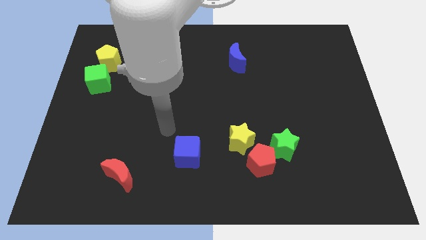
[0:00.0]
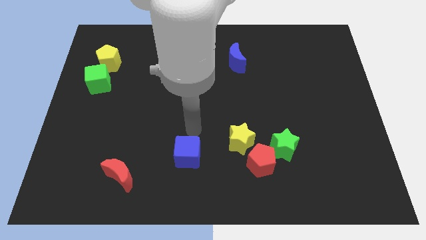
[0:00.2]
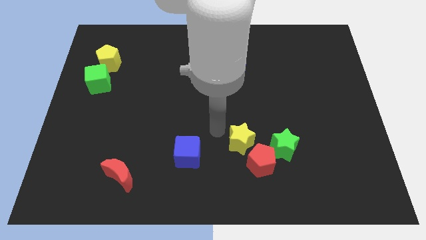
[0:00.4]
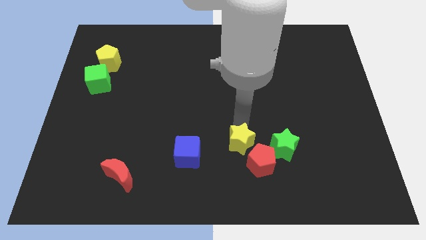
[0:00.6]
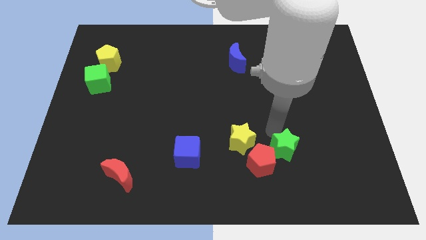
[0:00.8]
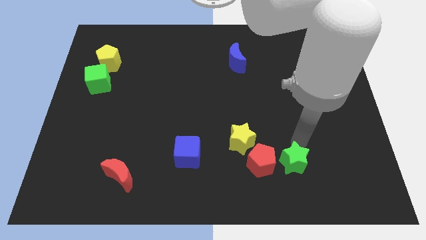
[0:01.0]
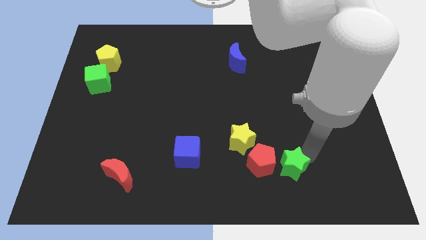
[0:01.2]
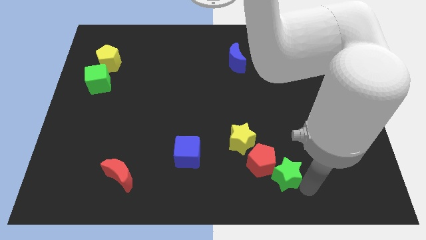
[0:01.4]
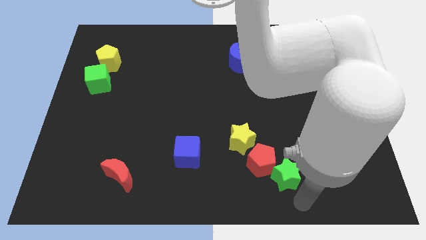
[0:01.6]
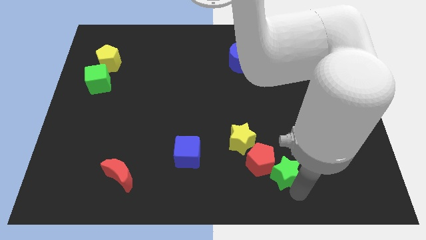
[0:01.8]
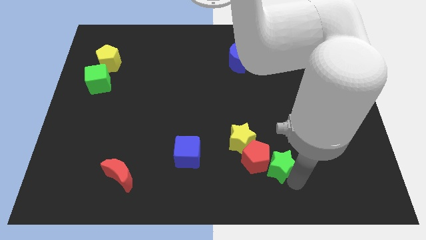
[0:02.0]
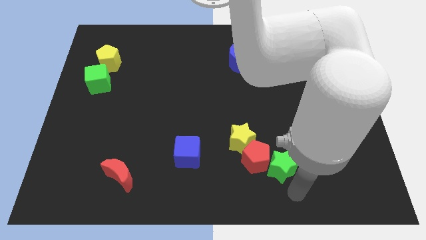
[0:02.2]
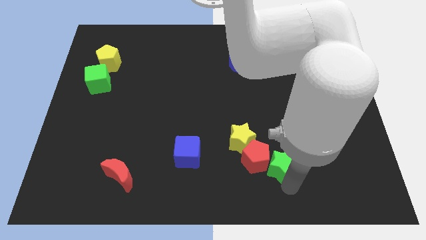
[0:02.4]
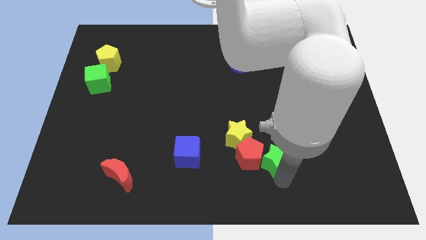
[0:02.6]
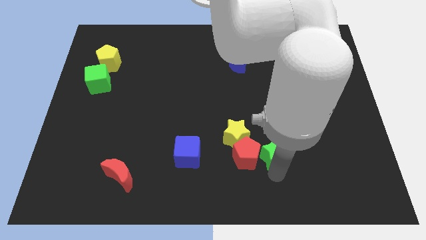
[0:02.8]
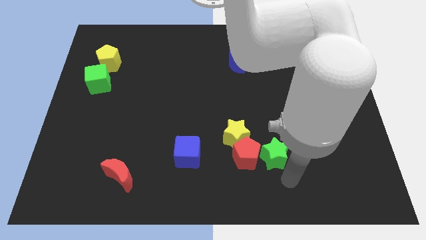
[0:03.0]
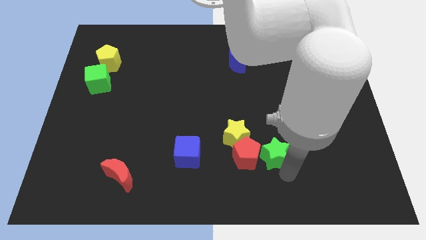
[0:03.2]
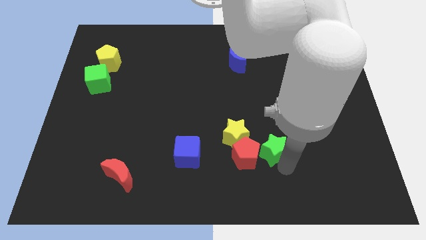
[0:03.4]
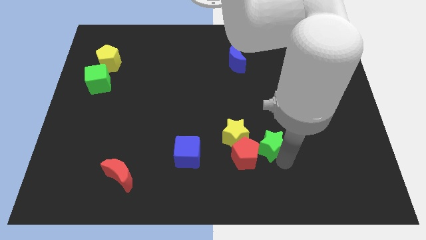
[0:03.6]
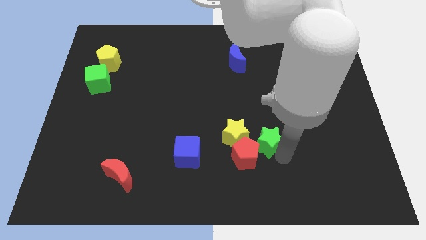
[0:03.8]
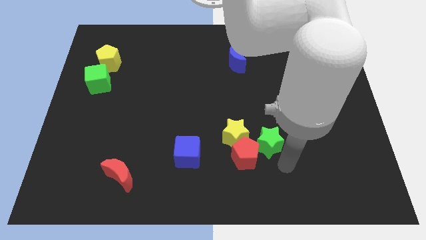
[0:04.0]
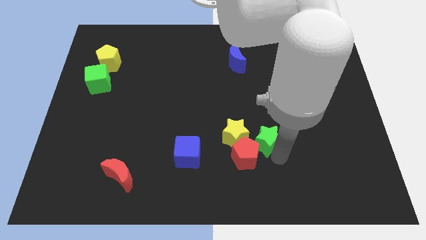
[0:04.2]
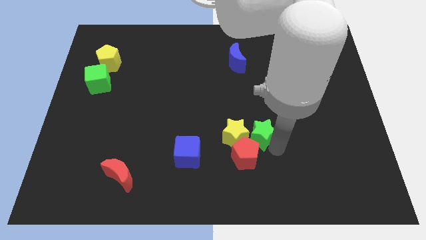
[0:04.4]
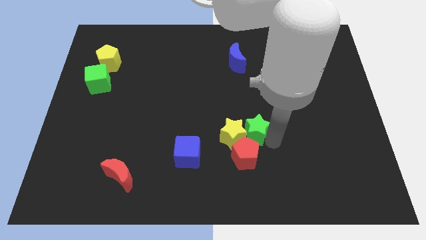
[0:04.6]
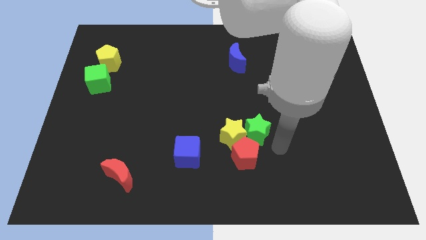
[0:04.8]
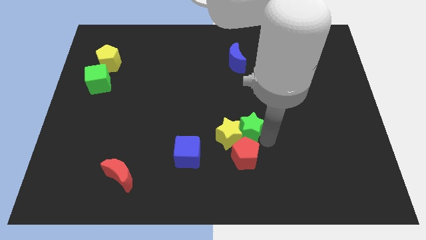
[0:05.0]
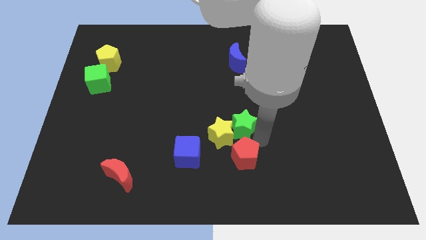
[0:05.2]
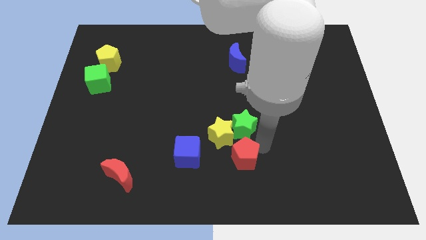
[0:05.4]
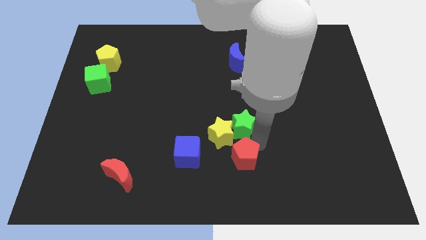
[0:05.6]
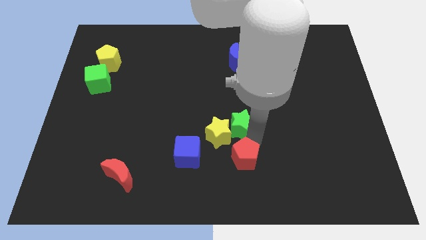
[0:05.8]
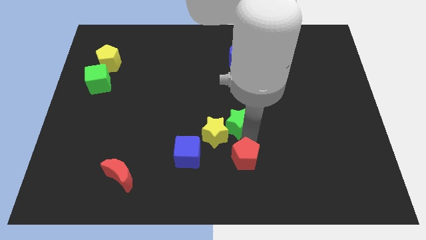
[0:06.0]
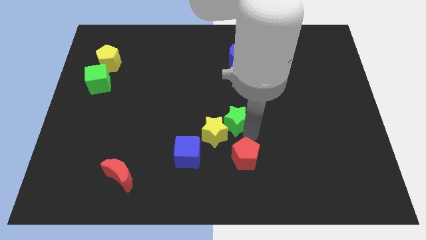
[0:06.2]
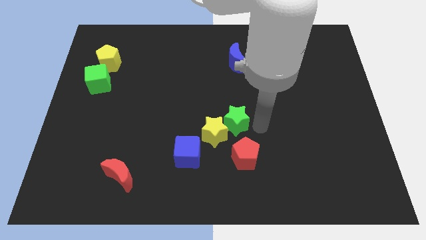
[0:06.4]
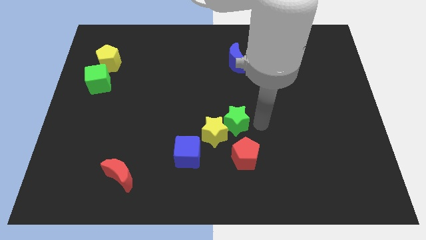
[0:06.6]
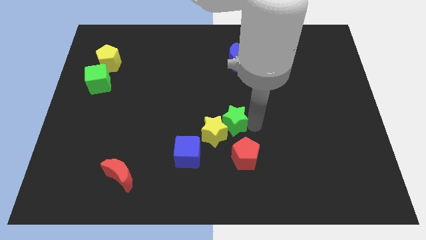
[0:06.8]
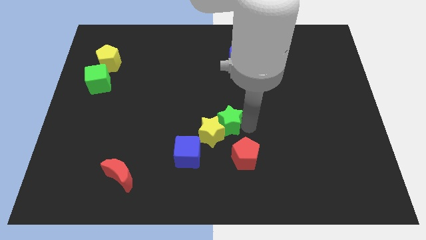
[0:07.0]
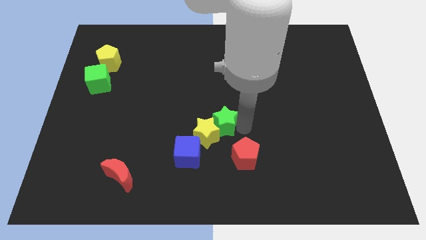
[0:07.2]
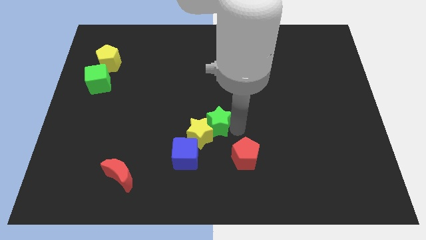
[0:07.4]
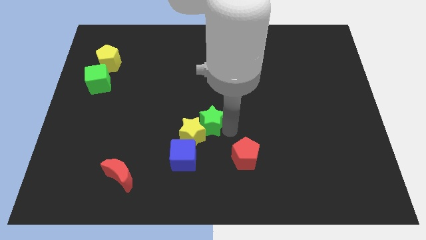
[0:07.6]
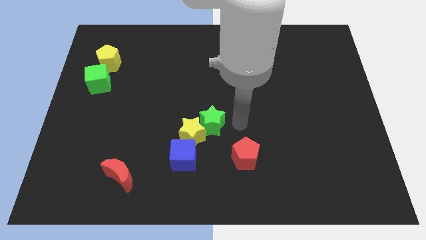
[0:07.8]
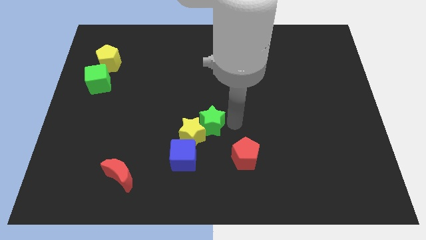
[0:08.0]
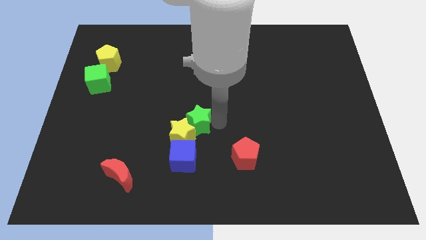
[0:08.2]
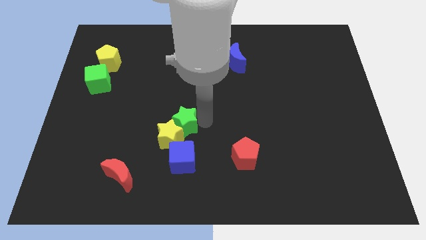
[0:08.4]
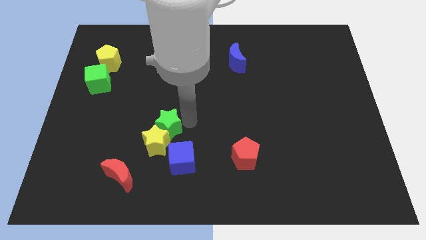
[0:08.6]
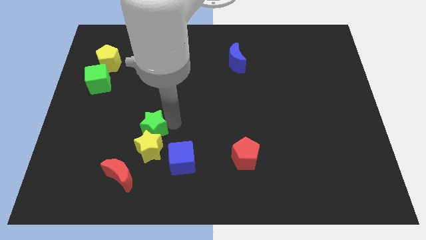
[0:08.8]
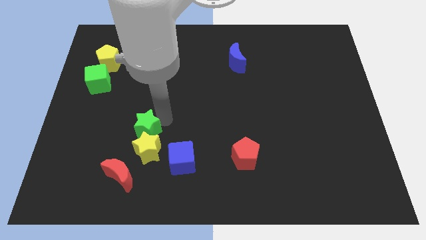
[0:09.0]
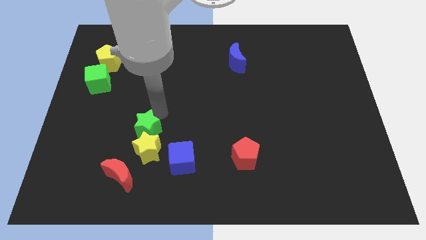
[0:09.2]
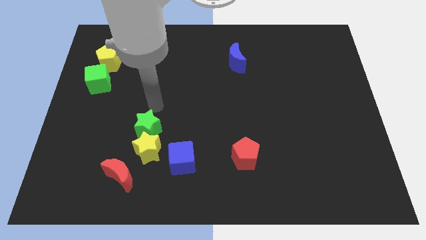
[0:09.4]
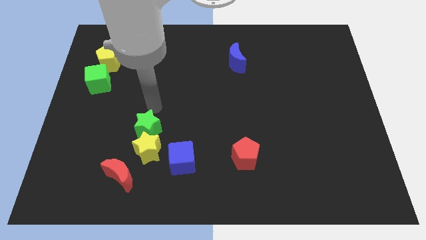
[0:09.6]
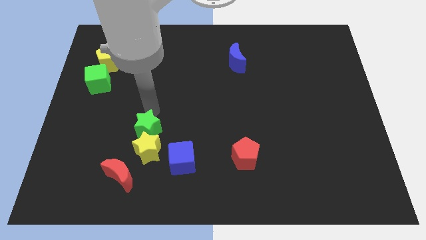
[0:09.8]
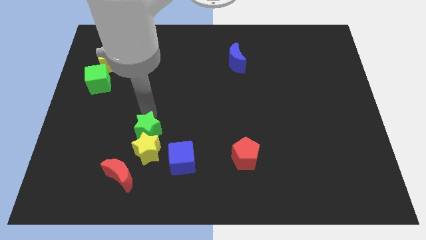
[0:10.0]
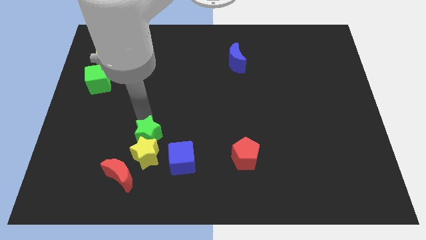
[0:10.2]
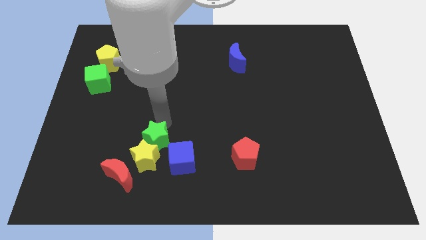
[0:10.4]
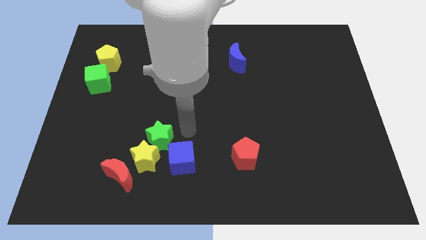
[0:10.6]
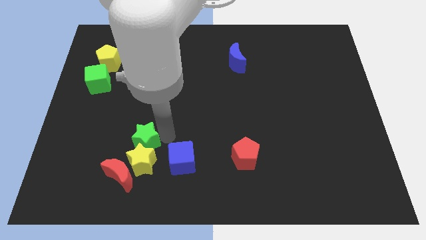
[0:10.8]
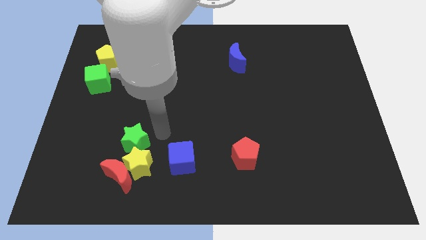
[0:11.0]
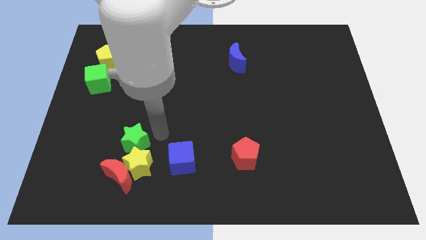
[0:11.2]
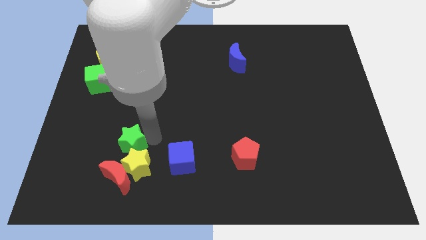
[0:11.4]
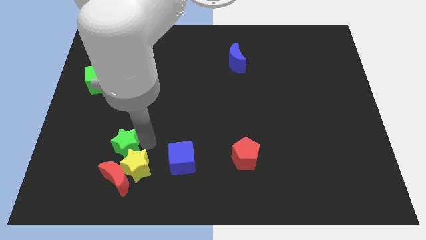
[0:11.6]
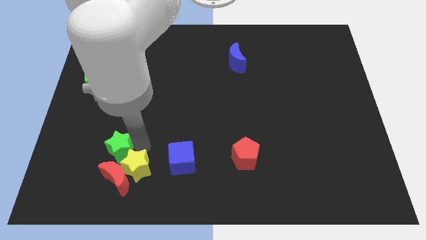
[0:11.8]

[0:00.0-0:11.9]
push the green star diagonally up and to the left of the red moon

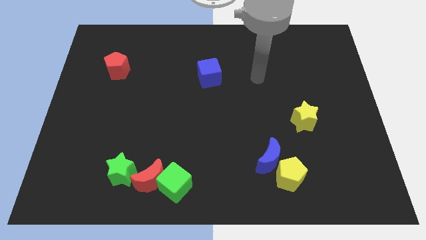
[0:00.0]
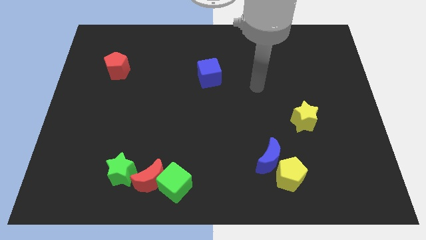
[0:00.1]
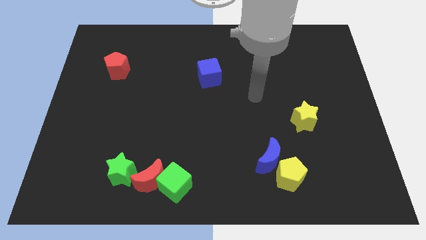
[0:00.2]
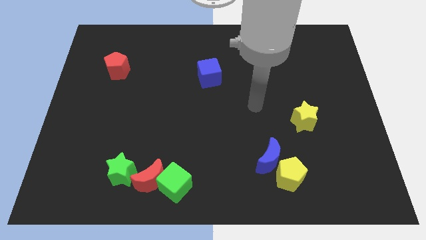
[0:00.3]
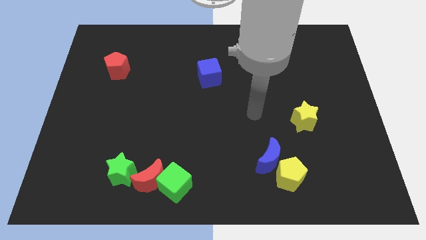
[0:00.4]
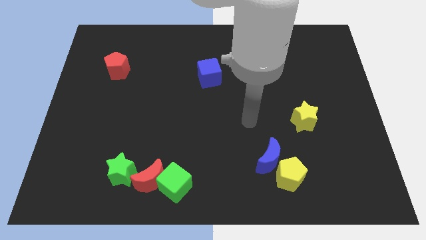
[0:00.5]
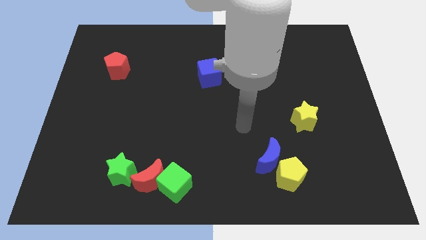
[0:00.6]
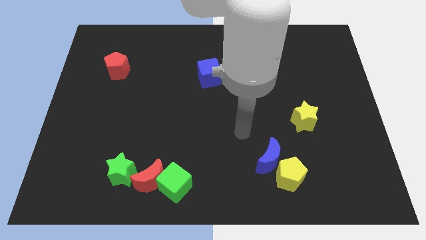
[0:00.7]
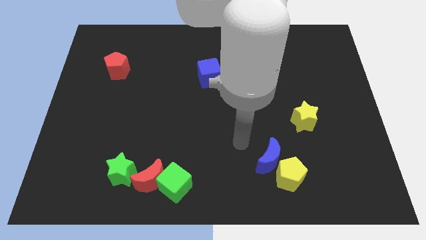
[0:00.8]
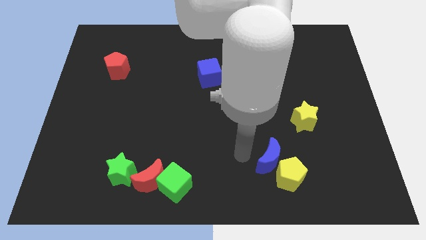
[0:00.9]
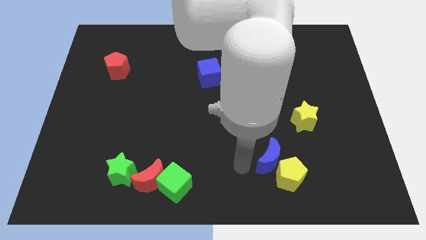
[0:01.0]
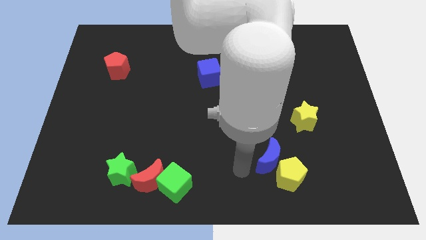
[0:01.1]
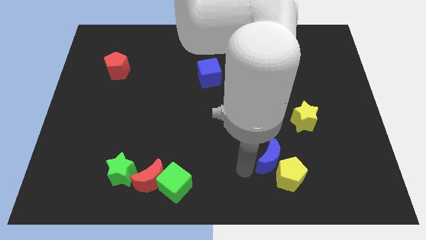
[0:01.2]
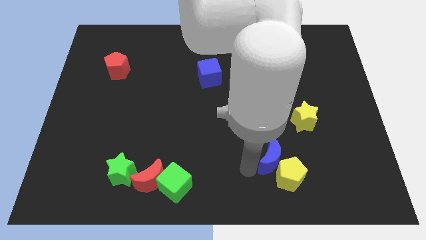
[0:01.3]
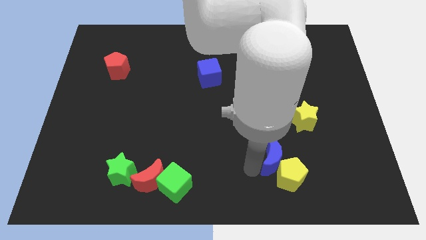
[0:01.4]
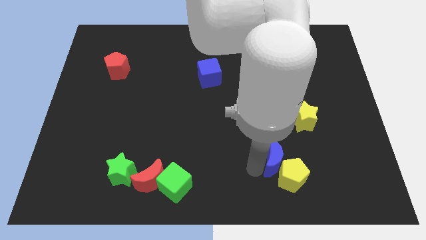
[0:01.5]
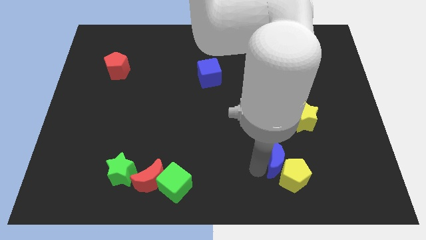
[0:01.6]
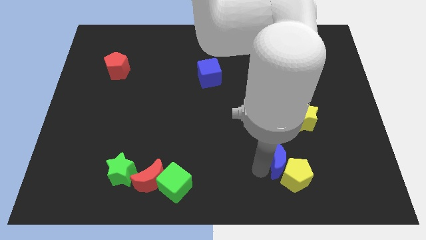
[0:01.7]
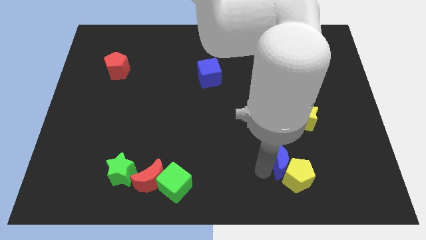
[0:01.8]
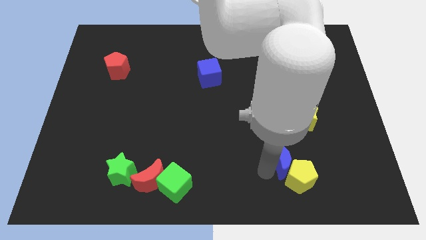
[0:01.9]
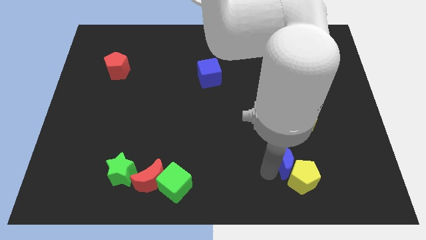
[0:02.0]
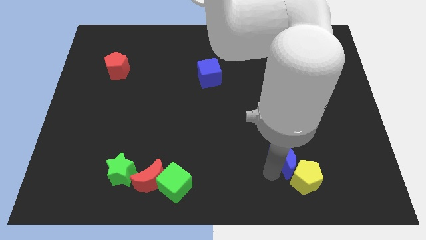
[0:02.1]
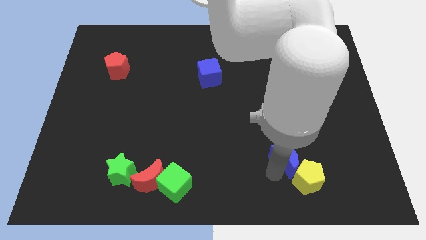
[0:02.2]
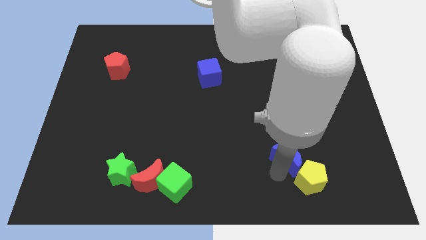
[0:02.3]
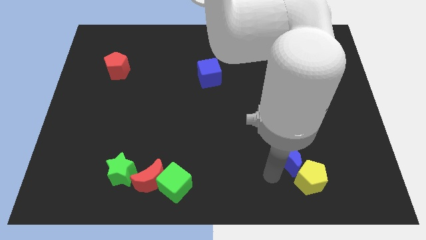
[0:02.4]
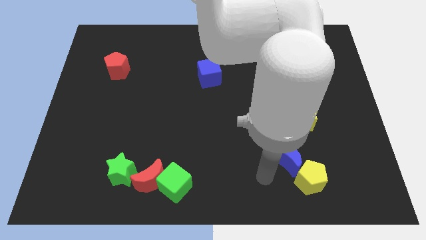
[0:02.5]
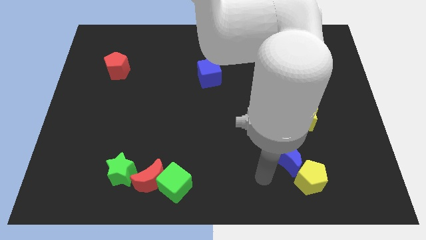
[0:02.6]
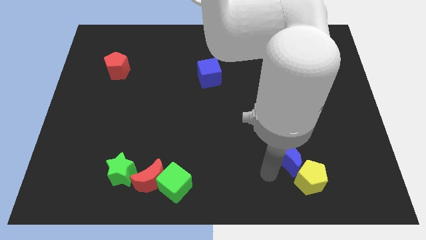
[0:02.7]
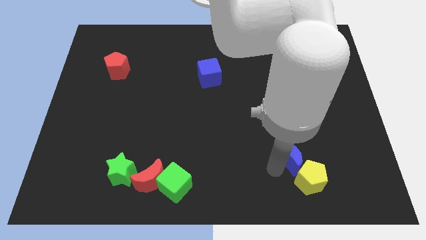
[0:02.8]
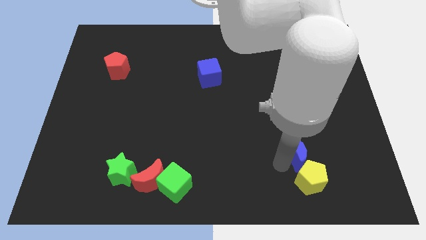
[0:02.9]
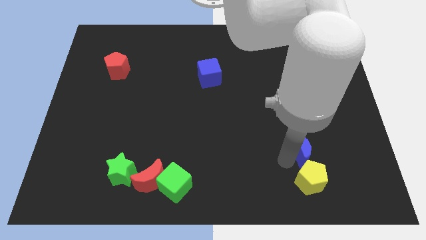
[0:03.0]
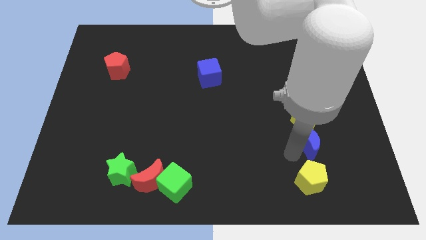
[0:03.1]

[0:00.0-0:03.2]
put the blue moon diagonally down and to the right of the yellow star
